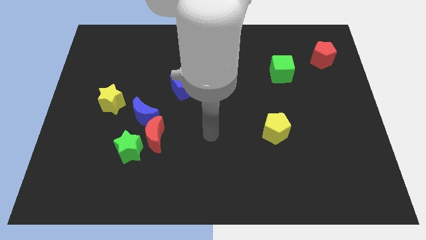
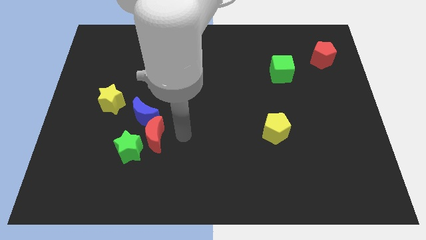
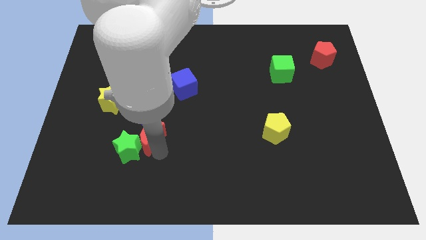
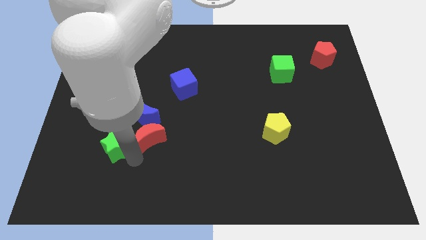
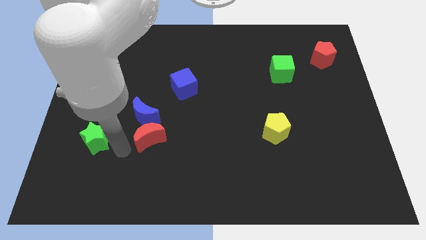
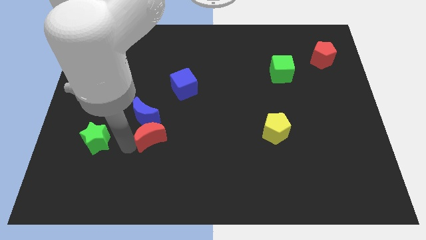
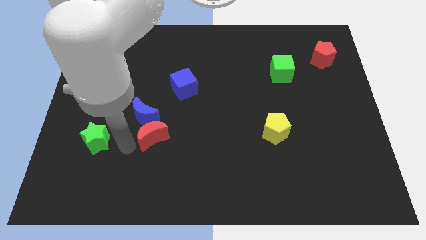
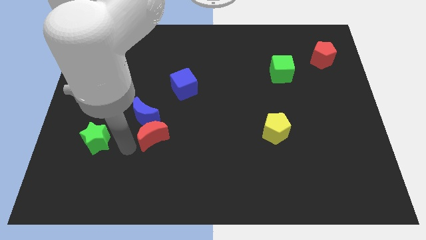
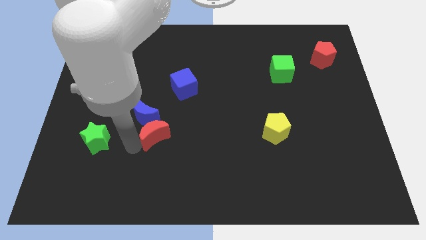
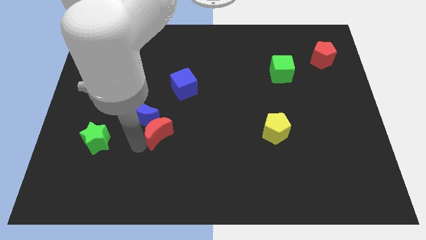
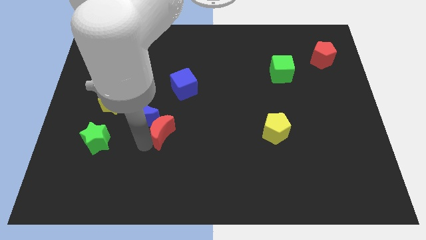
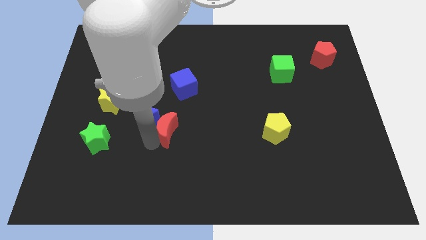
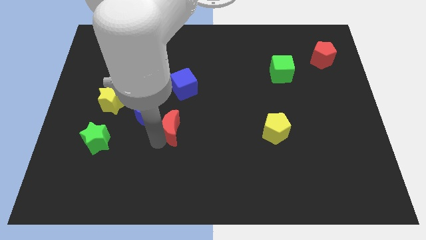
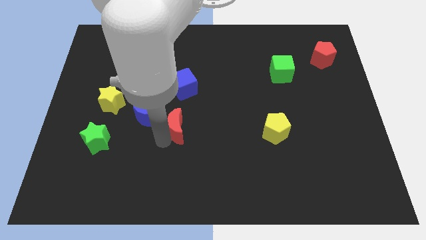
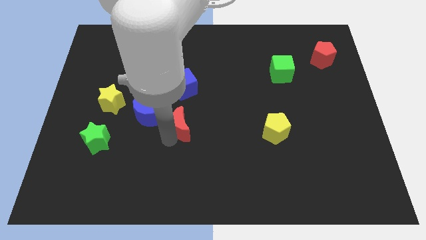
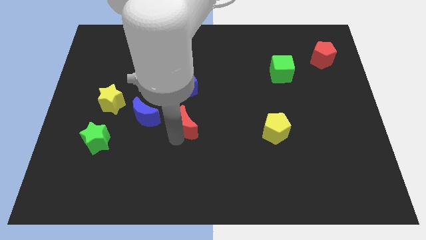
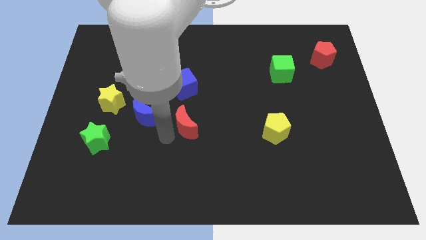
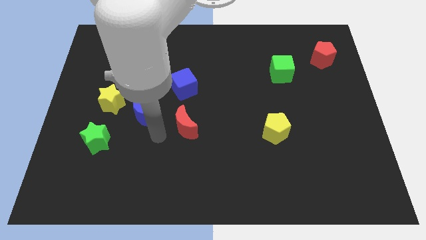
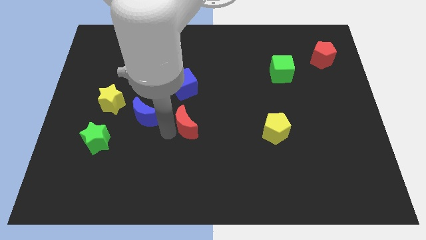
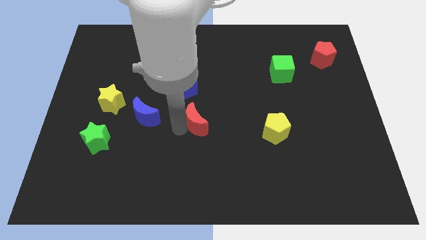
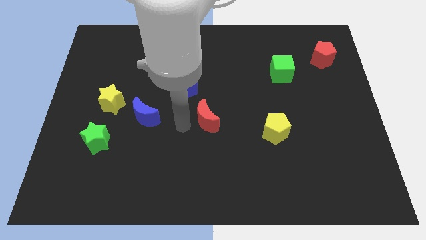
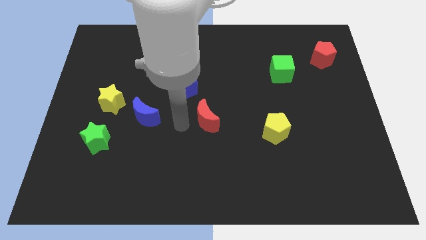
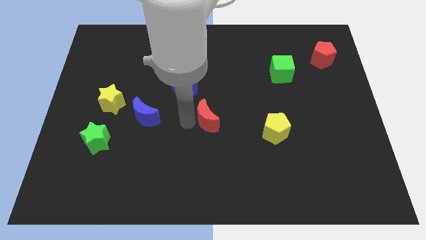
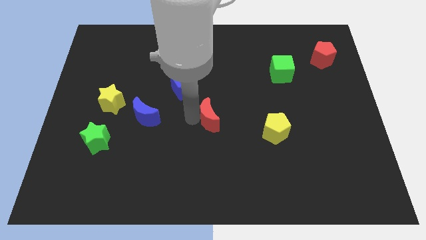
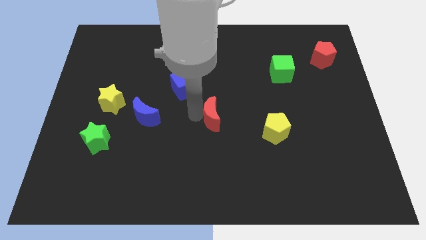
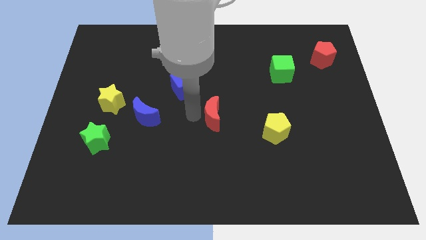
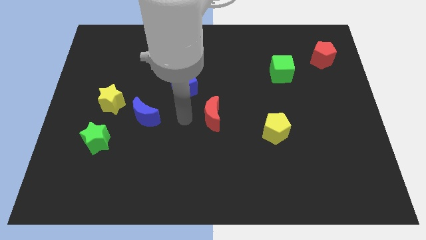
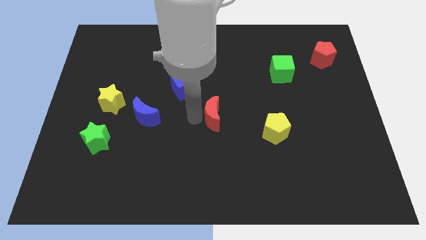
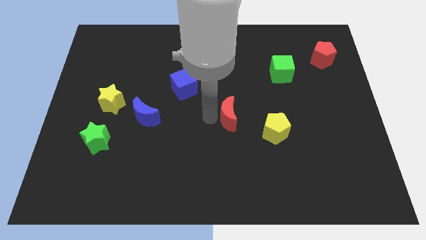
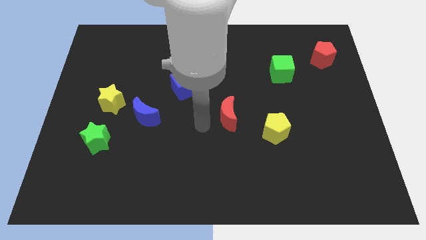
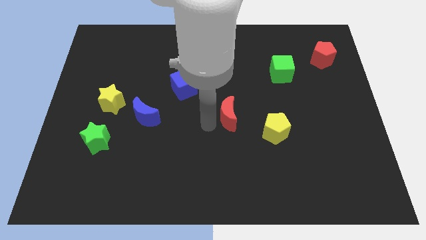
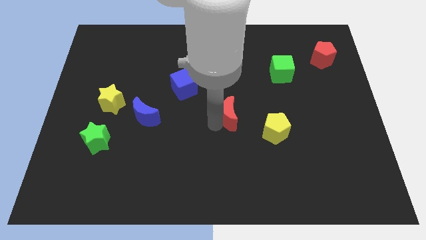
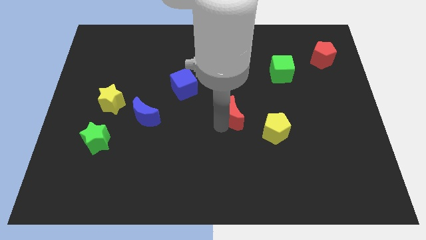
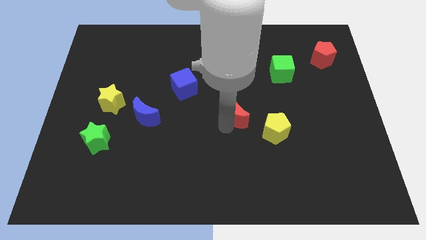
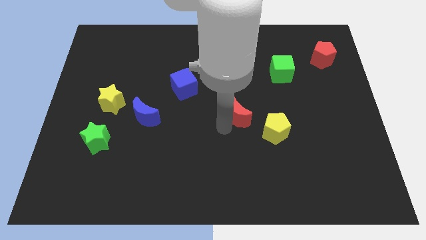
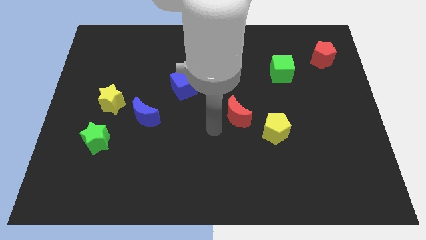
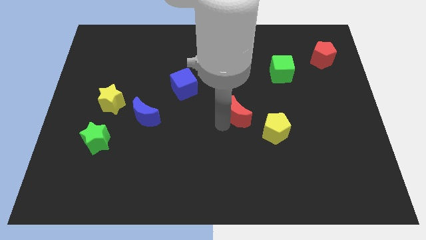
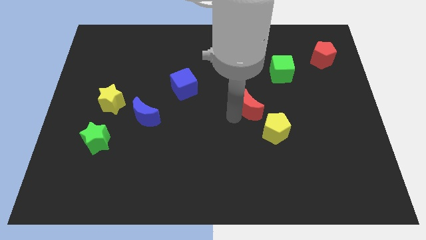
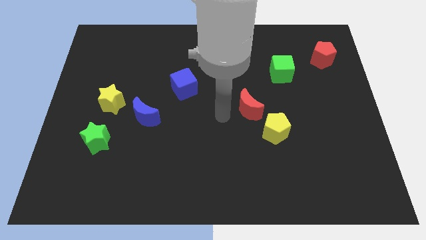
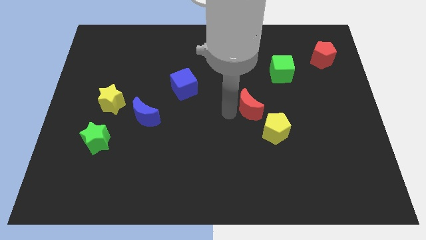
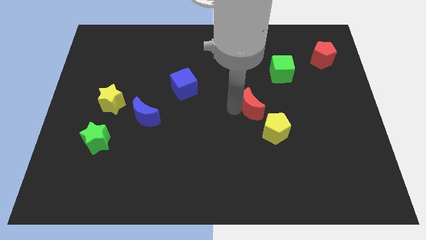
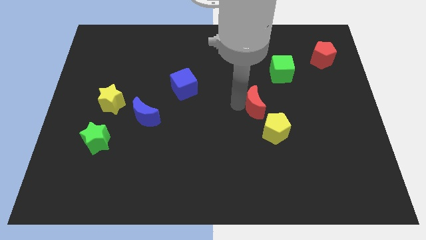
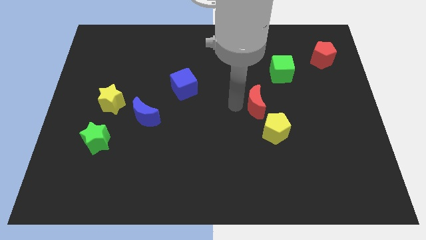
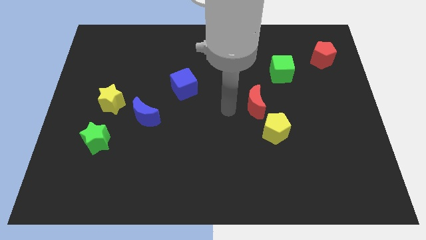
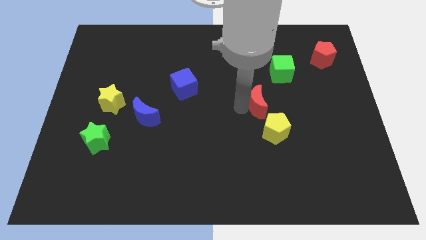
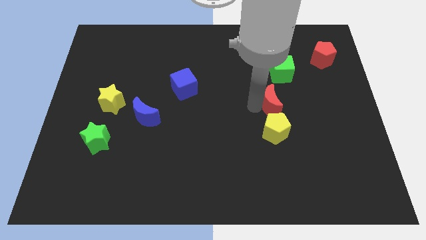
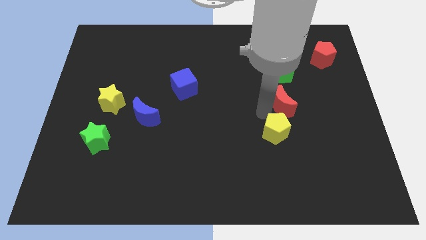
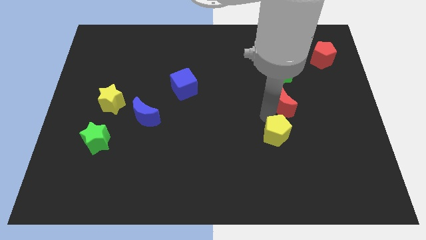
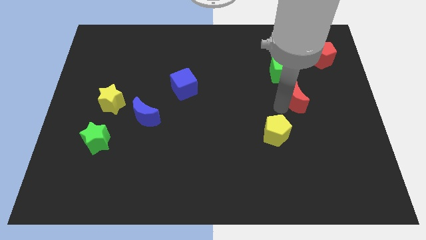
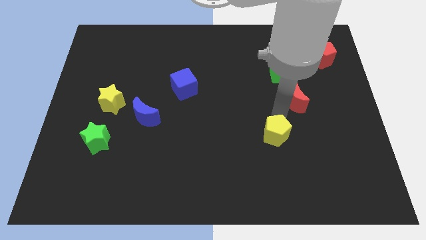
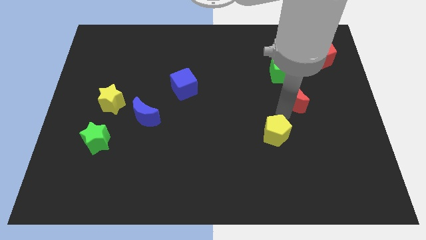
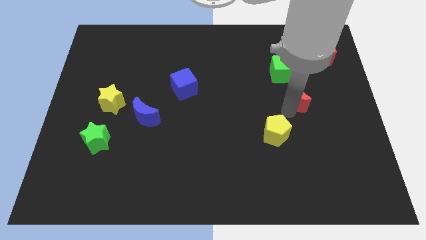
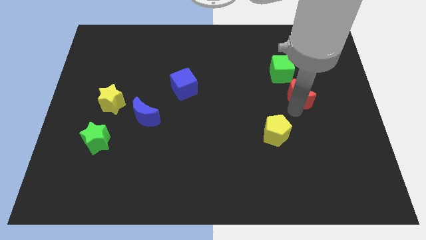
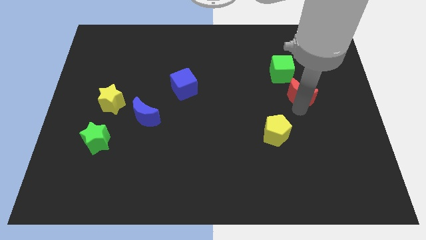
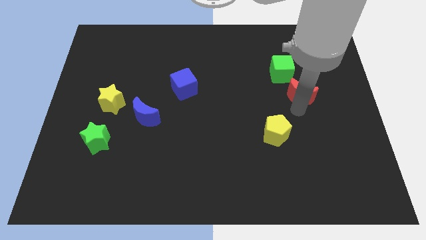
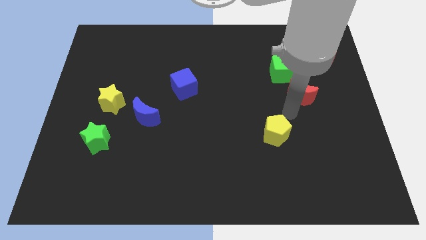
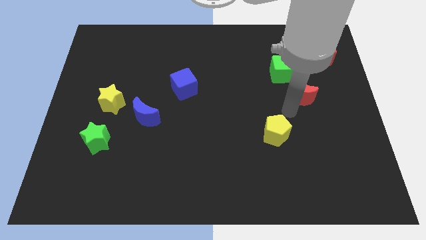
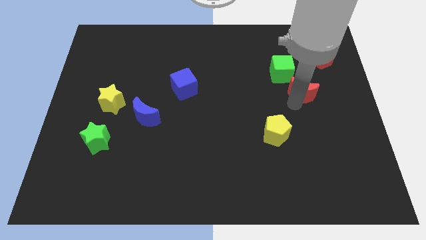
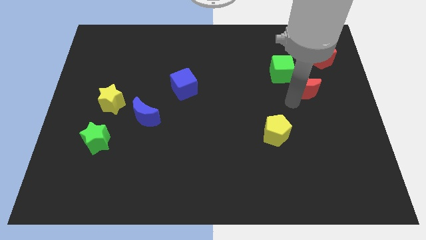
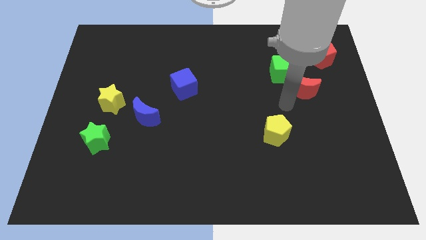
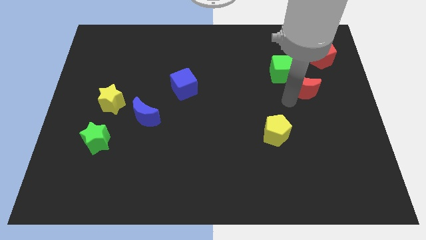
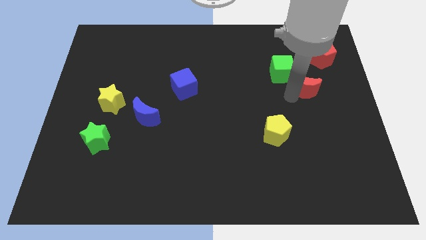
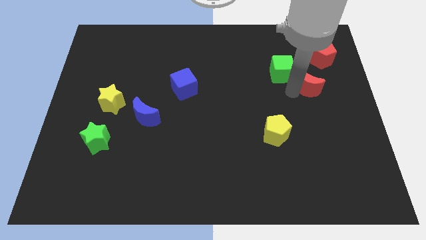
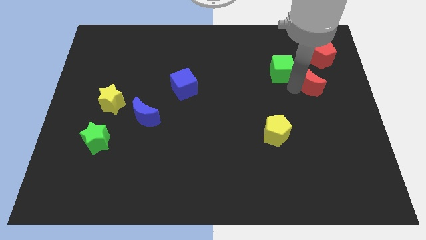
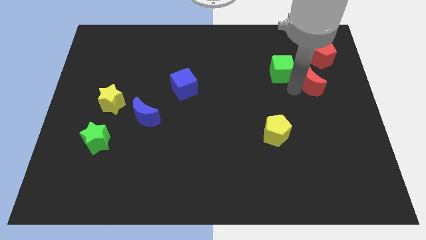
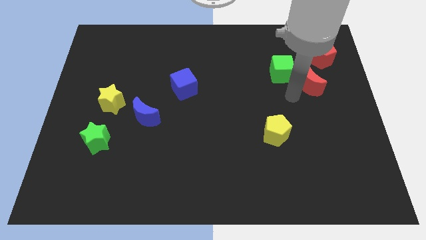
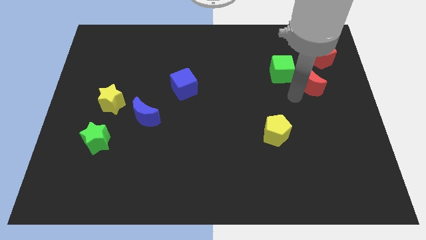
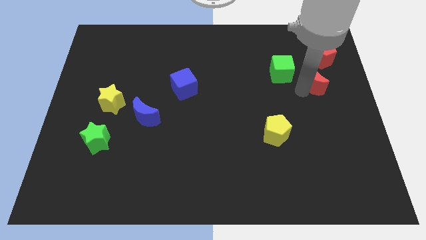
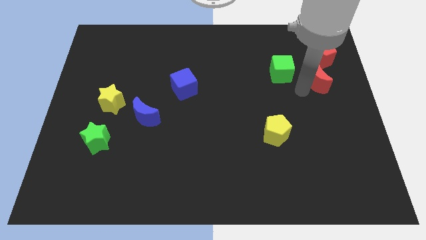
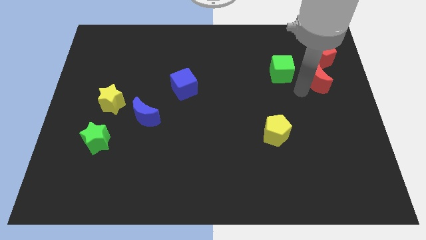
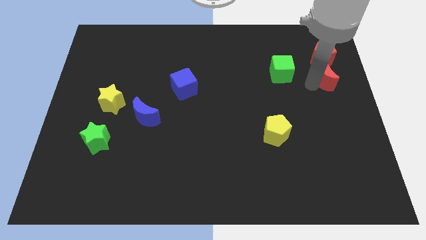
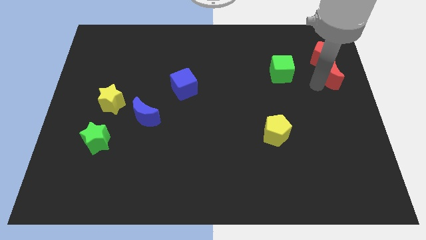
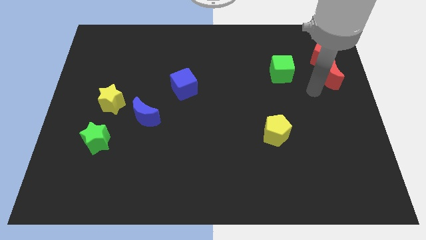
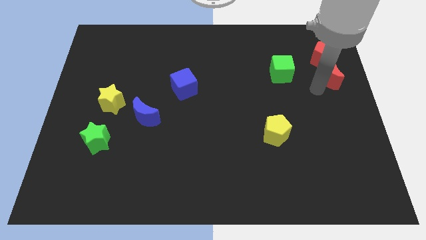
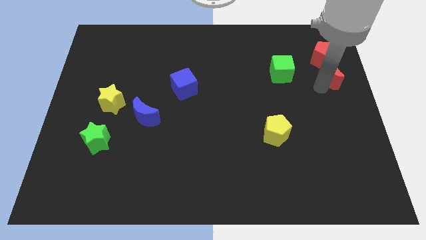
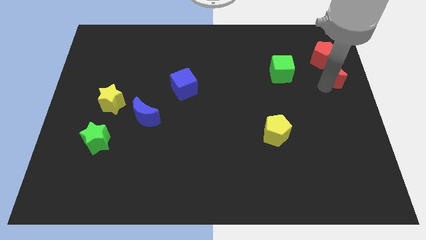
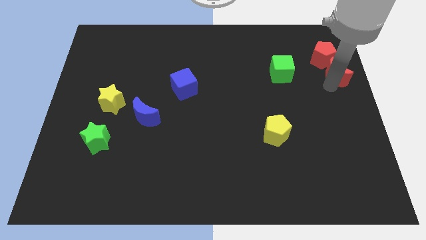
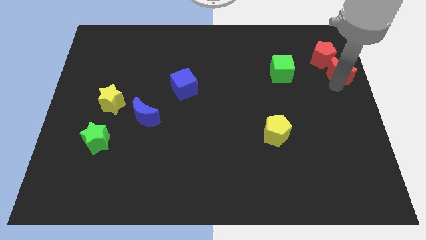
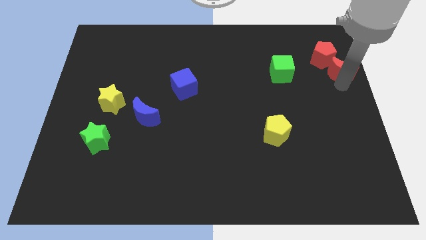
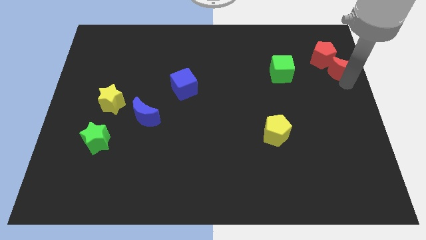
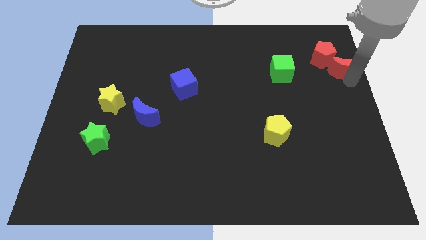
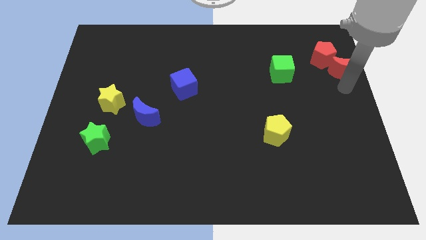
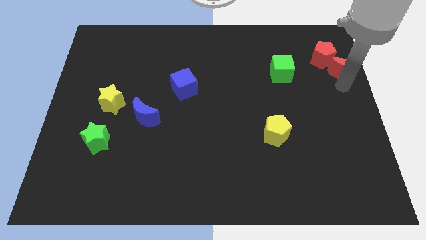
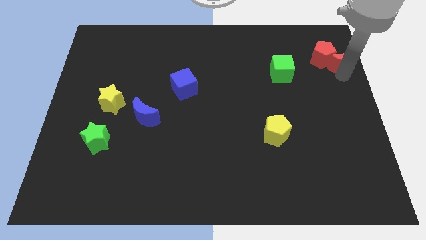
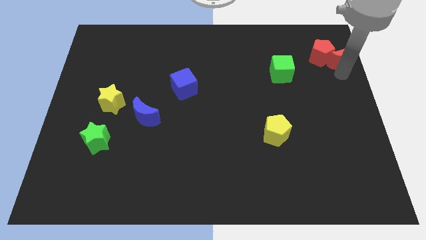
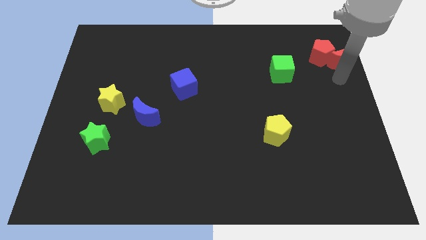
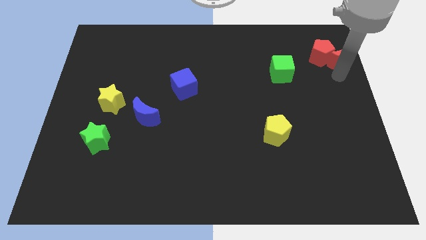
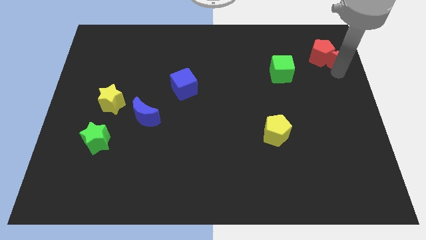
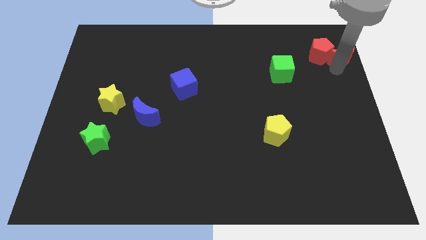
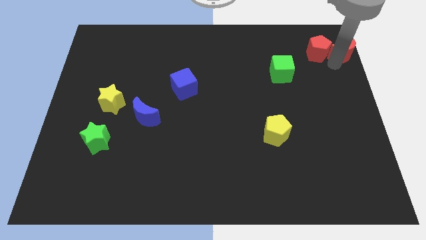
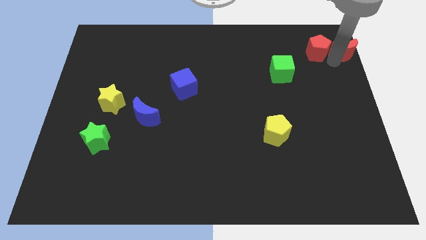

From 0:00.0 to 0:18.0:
move the red moon to the top right corner
